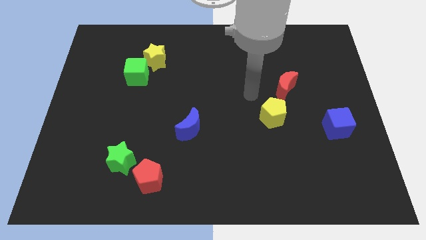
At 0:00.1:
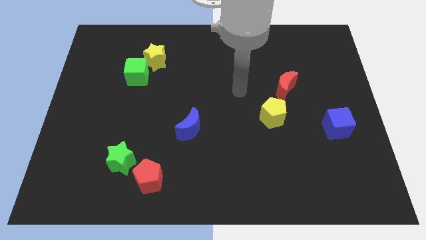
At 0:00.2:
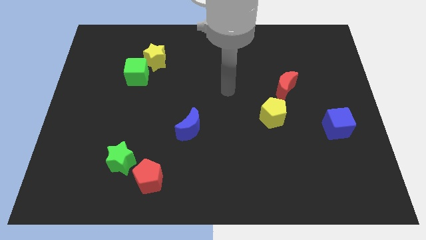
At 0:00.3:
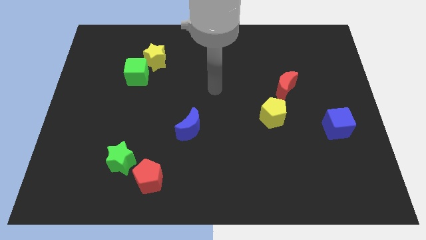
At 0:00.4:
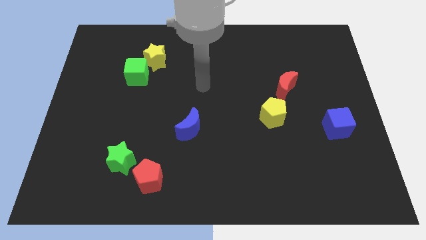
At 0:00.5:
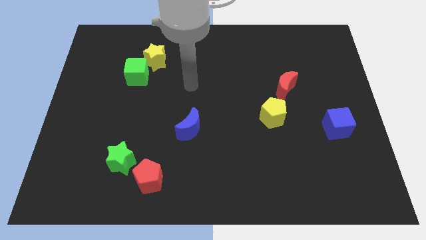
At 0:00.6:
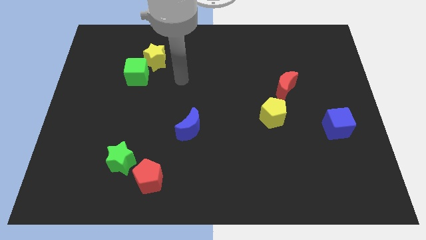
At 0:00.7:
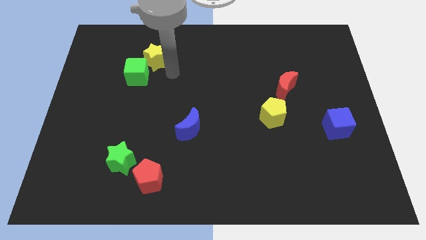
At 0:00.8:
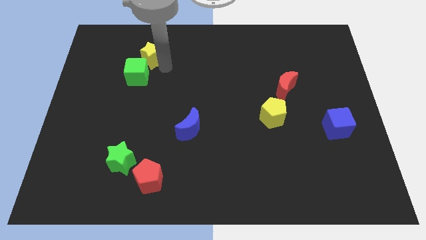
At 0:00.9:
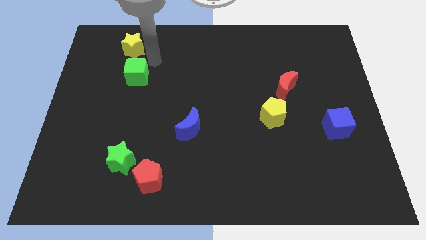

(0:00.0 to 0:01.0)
move the green cube away from the yellow star

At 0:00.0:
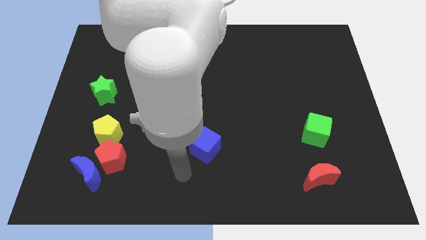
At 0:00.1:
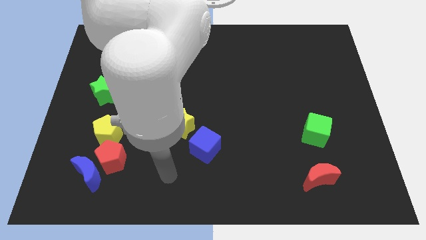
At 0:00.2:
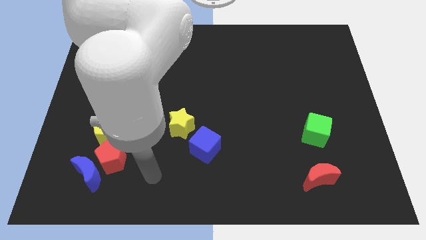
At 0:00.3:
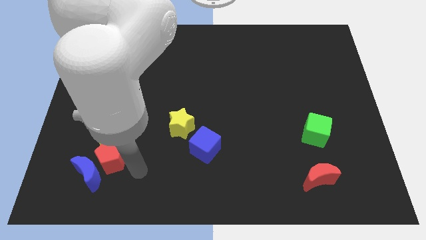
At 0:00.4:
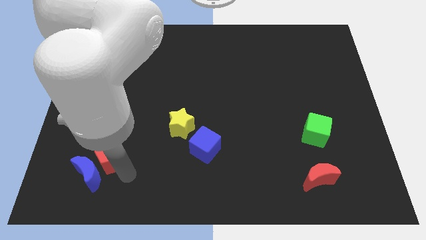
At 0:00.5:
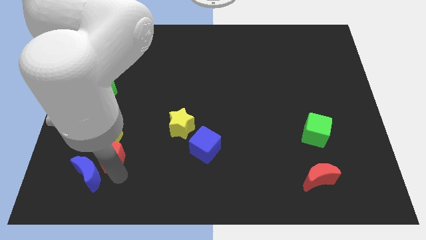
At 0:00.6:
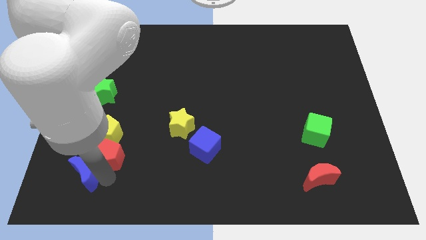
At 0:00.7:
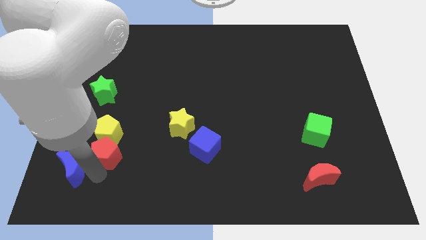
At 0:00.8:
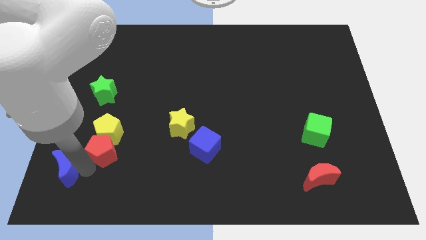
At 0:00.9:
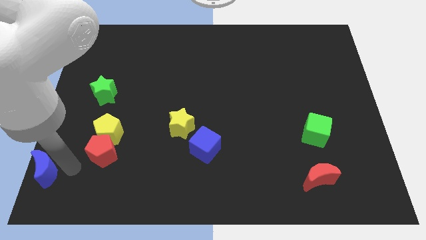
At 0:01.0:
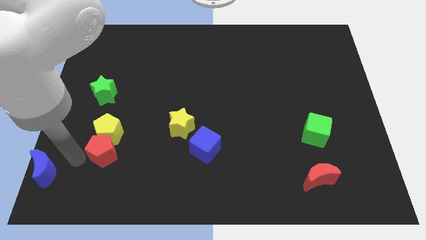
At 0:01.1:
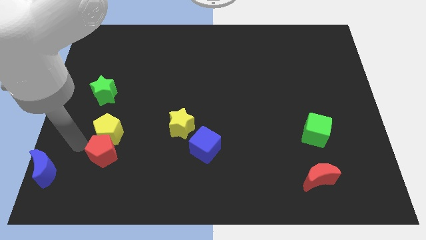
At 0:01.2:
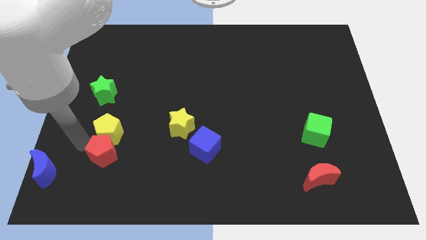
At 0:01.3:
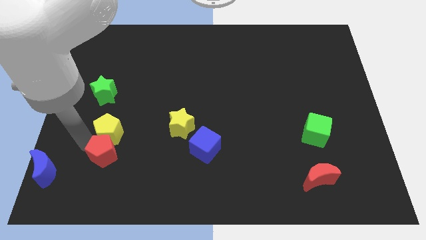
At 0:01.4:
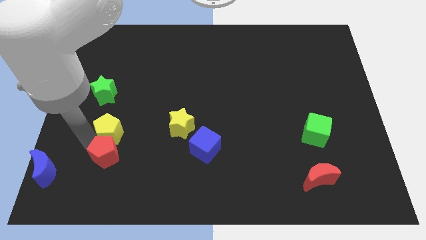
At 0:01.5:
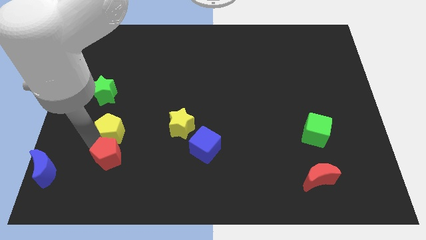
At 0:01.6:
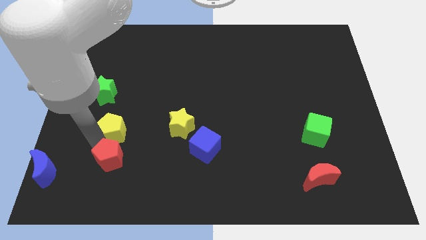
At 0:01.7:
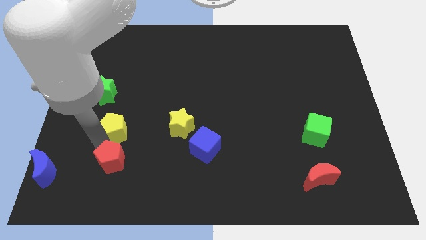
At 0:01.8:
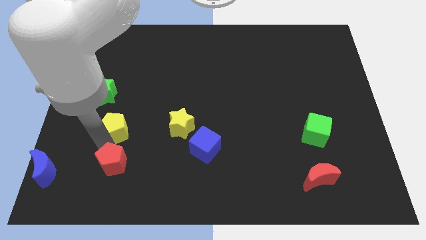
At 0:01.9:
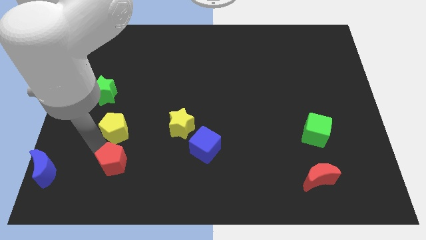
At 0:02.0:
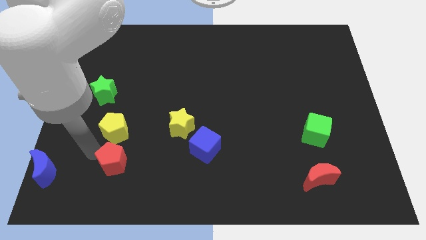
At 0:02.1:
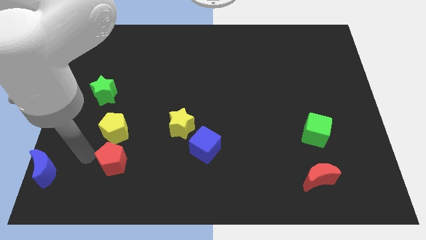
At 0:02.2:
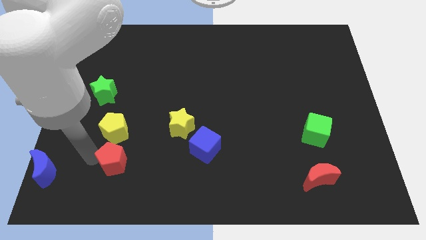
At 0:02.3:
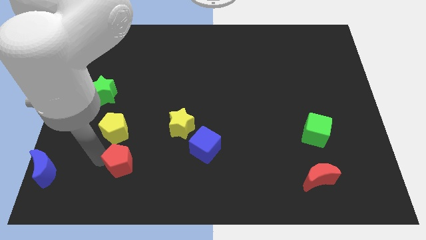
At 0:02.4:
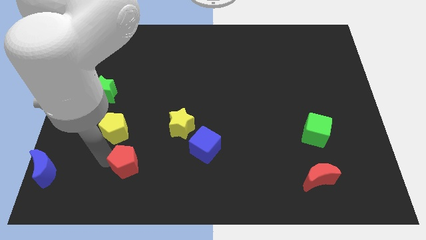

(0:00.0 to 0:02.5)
pull the red pentagon apart from the blue moon and yellow pentagon

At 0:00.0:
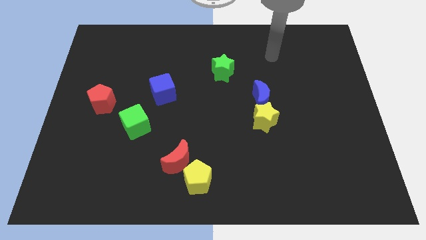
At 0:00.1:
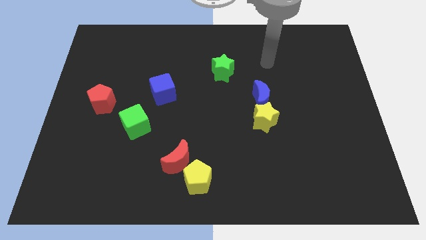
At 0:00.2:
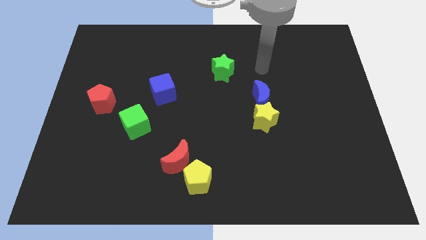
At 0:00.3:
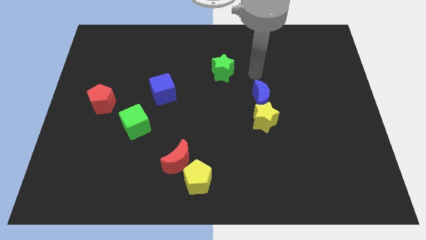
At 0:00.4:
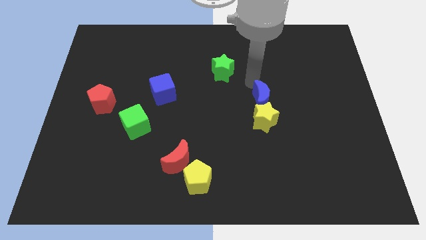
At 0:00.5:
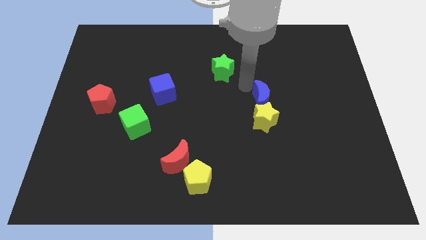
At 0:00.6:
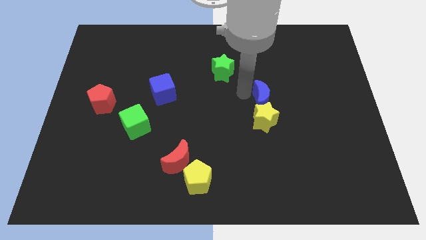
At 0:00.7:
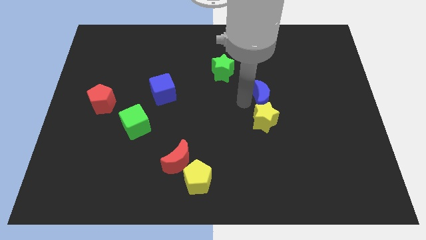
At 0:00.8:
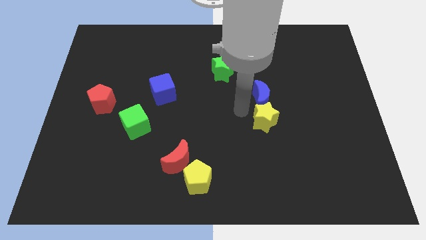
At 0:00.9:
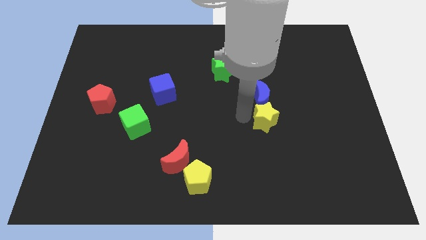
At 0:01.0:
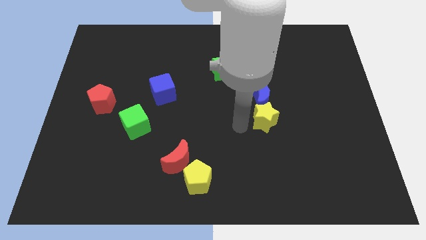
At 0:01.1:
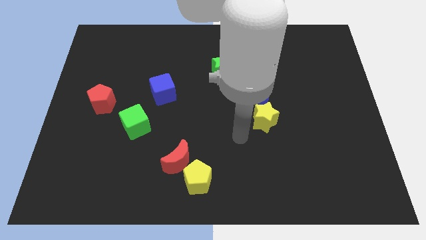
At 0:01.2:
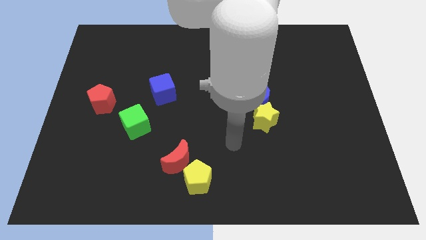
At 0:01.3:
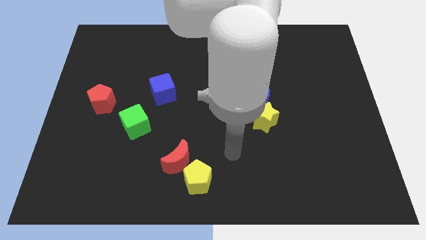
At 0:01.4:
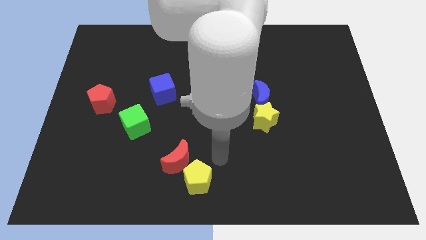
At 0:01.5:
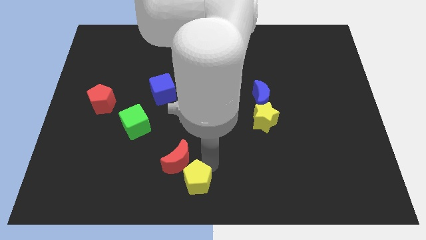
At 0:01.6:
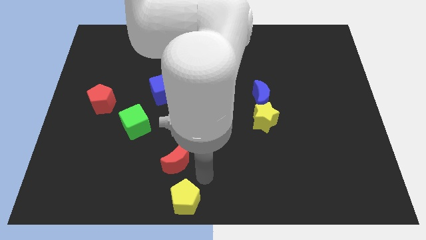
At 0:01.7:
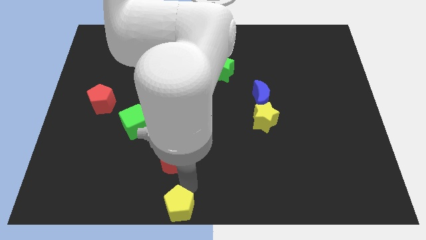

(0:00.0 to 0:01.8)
separate the red moon from the yellow pentagon

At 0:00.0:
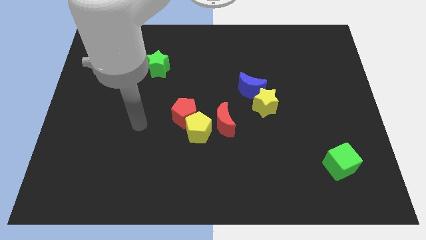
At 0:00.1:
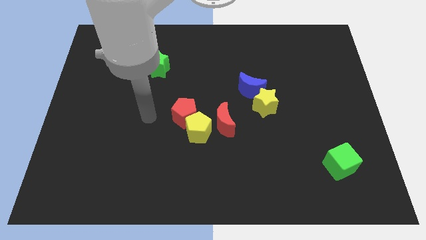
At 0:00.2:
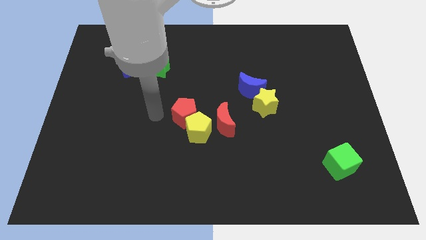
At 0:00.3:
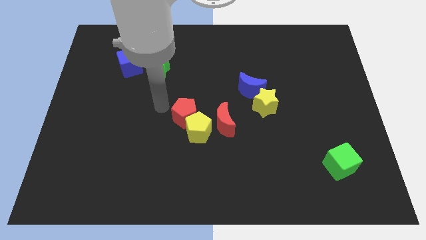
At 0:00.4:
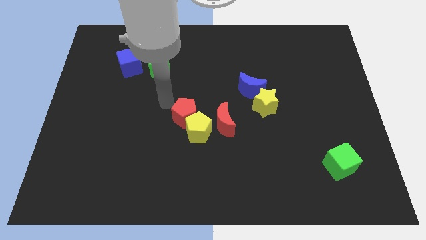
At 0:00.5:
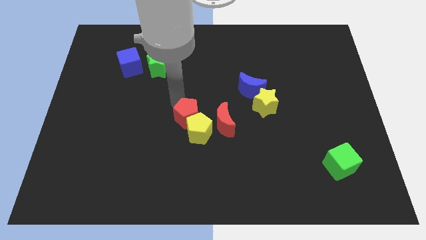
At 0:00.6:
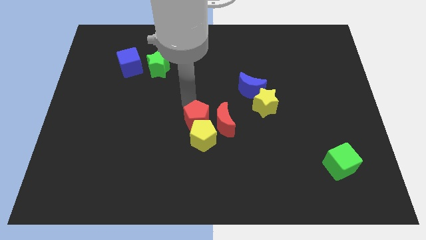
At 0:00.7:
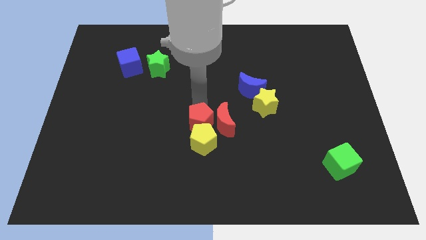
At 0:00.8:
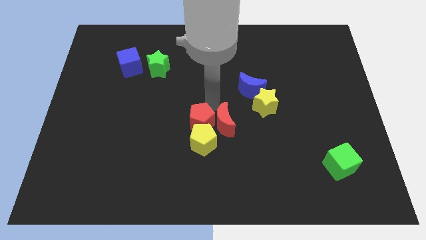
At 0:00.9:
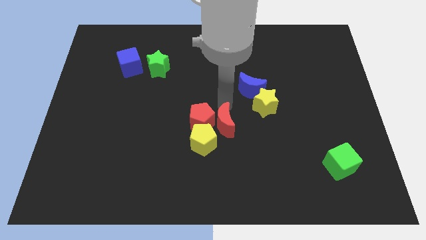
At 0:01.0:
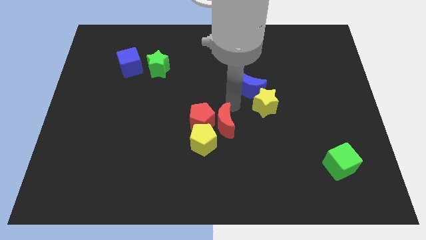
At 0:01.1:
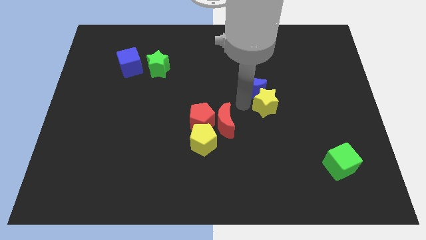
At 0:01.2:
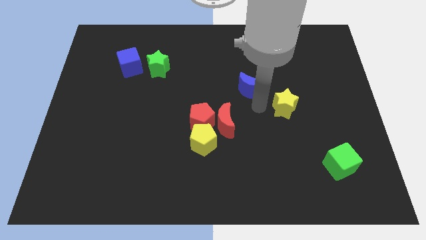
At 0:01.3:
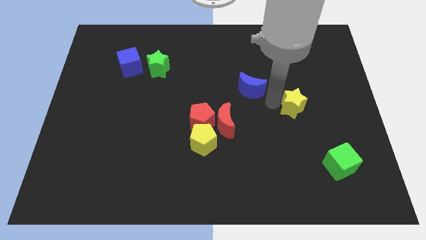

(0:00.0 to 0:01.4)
separate the blue moon from the yellow star

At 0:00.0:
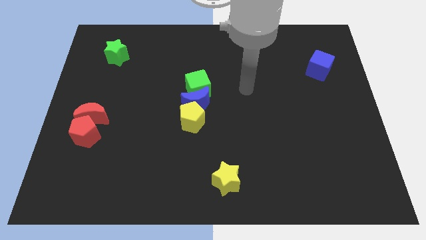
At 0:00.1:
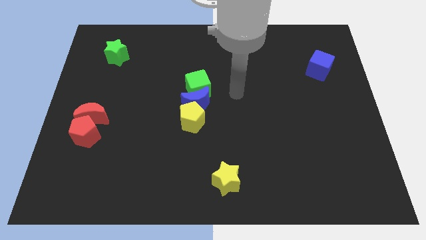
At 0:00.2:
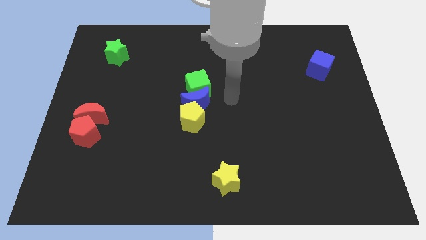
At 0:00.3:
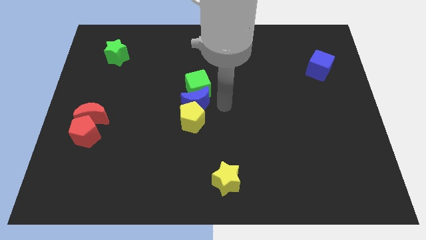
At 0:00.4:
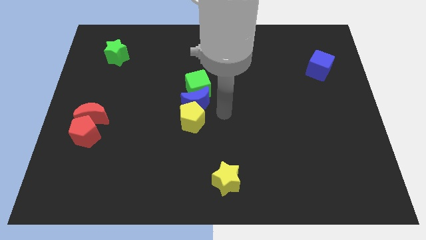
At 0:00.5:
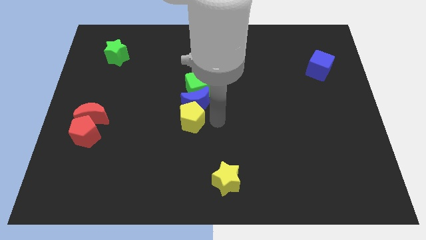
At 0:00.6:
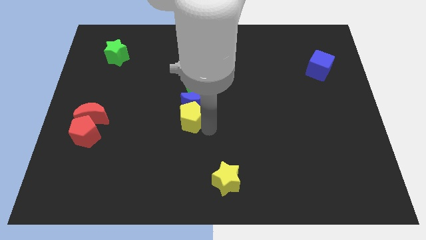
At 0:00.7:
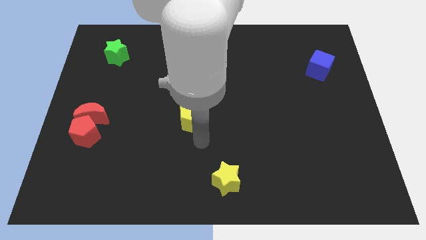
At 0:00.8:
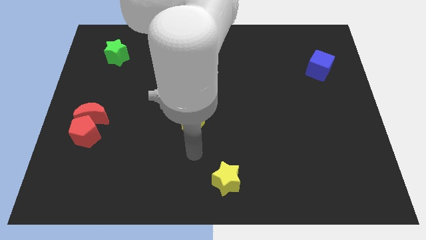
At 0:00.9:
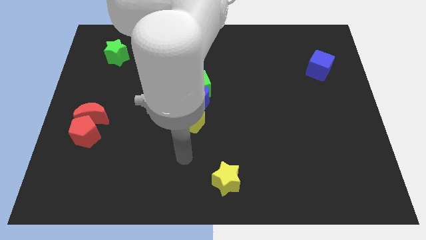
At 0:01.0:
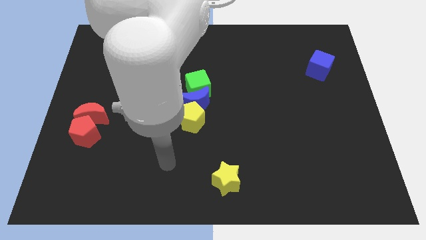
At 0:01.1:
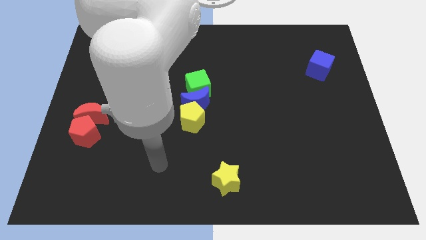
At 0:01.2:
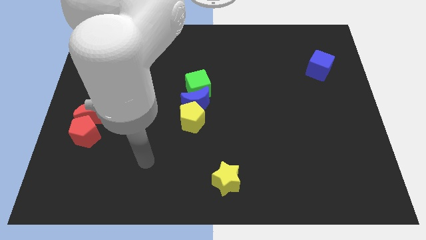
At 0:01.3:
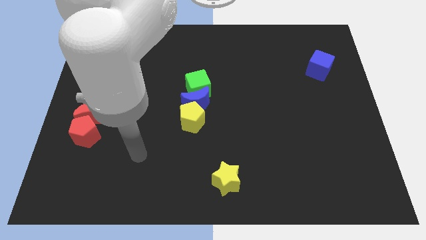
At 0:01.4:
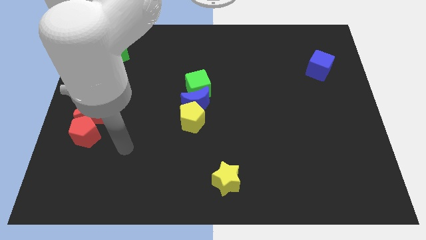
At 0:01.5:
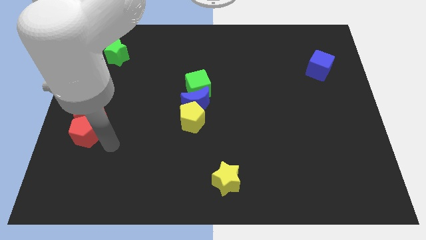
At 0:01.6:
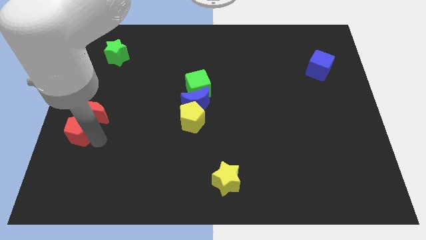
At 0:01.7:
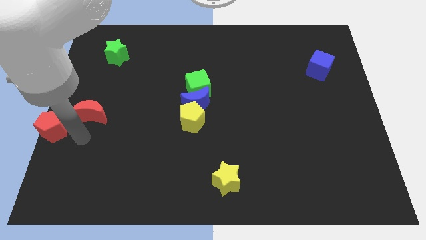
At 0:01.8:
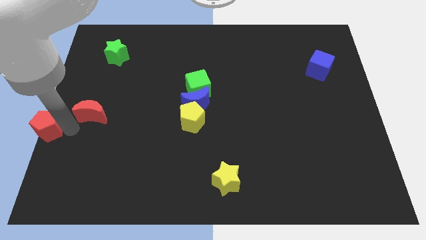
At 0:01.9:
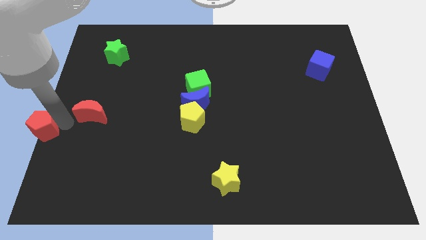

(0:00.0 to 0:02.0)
move the red moon away from the red pentagon

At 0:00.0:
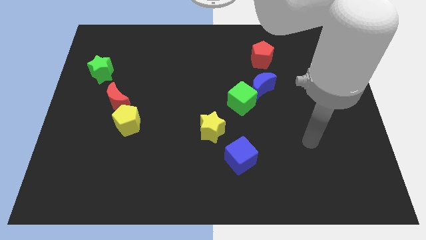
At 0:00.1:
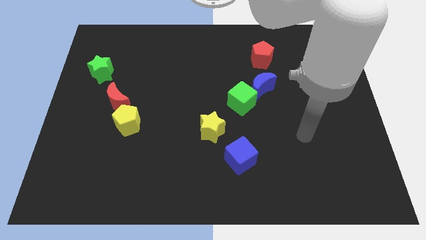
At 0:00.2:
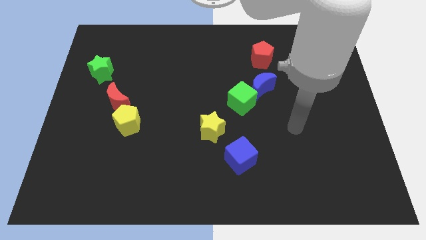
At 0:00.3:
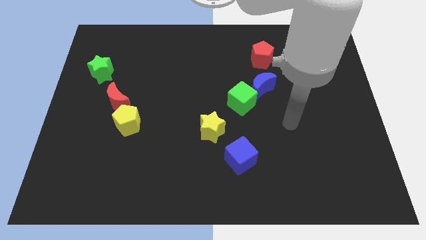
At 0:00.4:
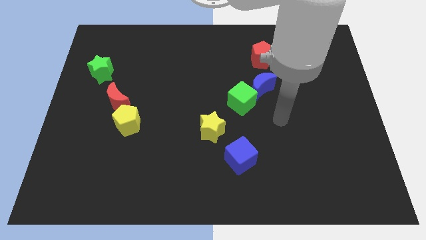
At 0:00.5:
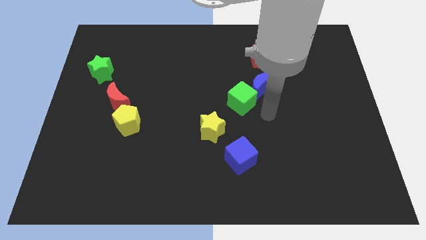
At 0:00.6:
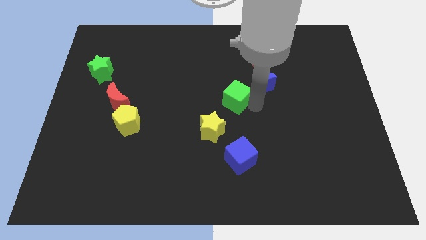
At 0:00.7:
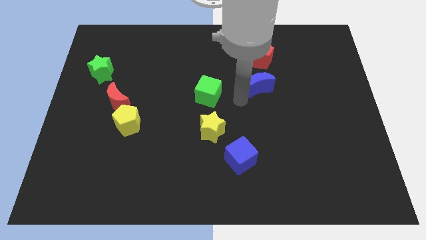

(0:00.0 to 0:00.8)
pull the blue moon apart from the green cube
